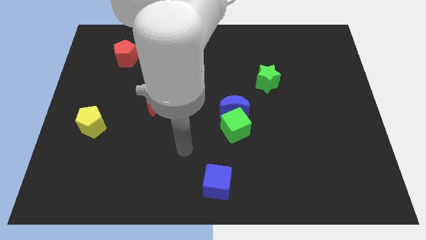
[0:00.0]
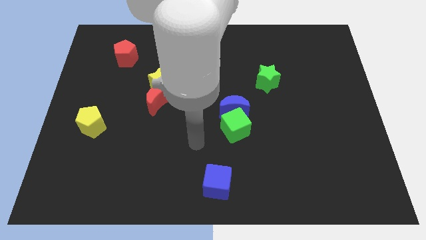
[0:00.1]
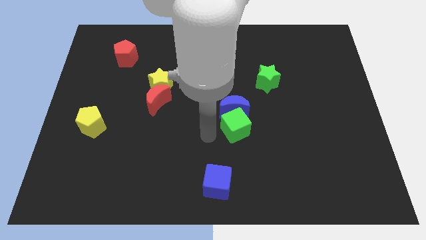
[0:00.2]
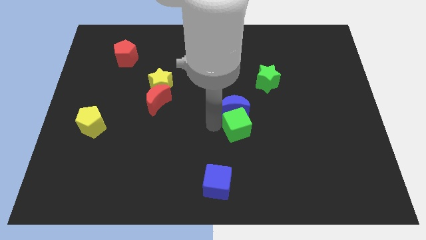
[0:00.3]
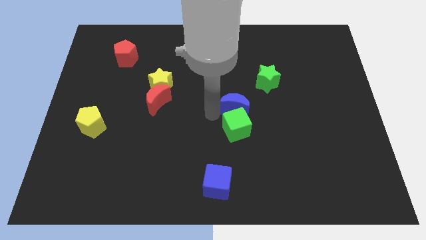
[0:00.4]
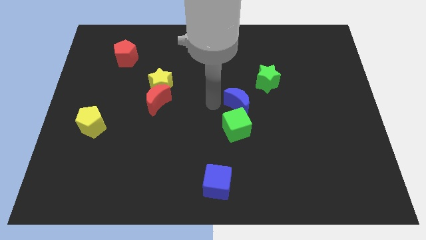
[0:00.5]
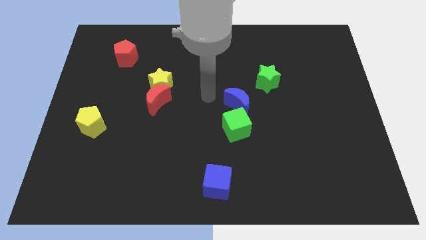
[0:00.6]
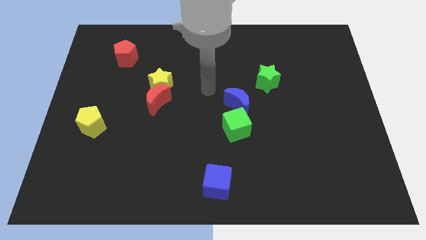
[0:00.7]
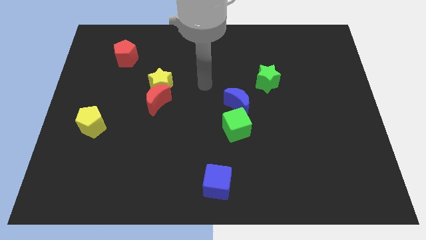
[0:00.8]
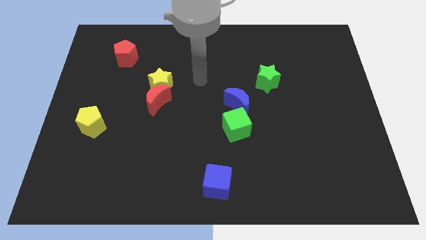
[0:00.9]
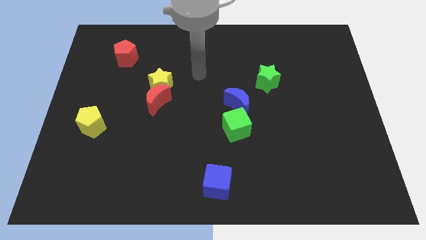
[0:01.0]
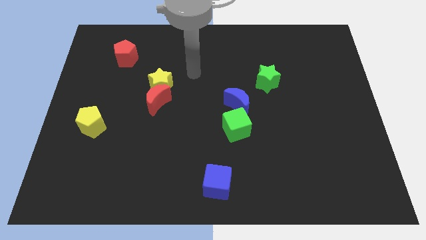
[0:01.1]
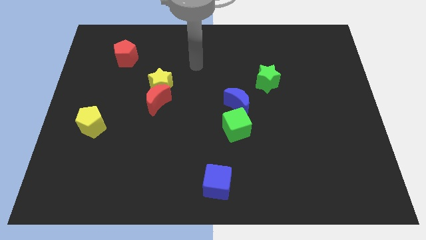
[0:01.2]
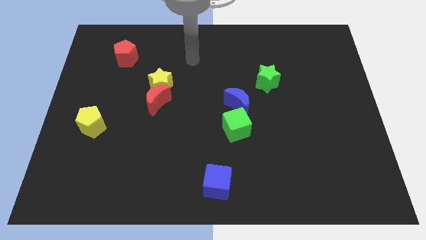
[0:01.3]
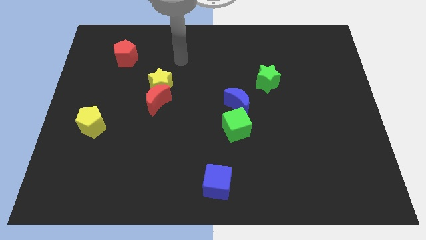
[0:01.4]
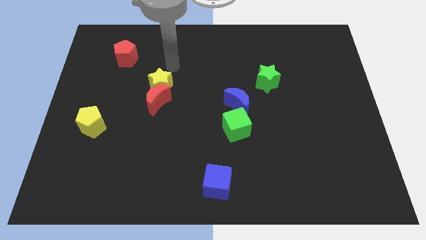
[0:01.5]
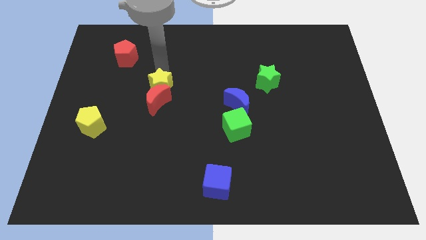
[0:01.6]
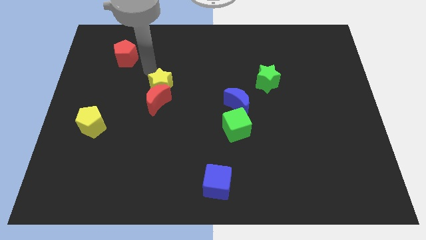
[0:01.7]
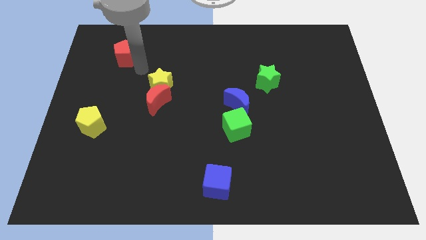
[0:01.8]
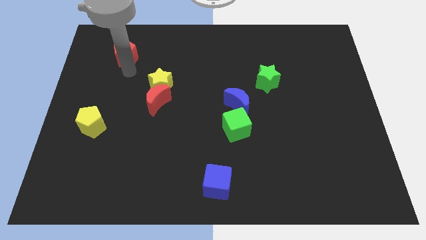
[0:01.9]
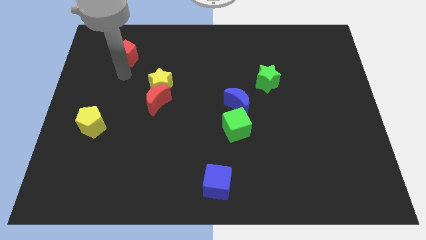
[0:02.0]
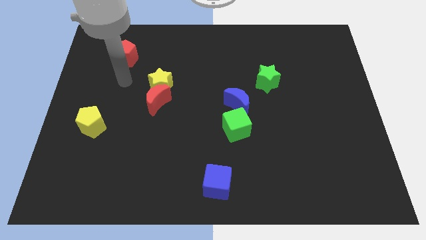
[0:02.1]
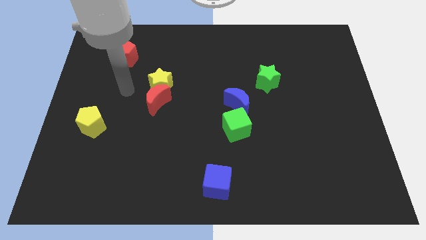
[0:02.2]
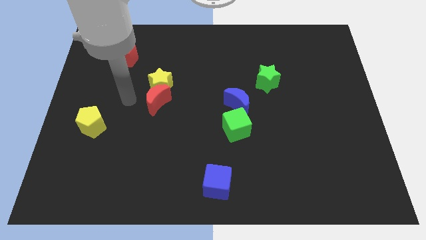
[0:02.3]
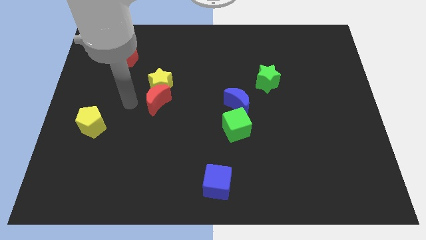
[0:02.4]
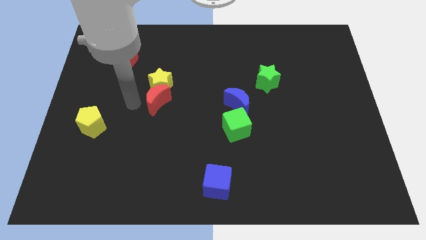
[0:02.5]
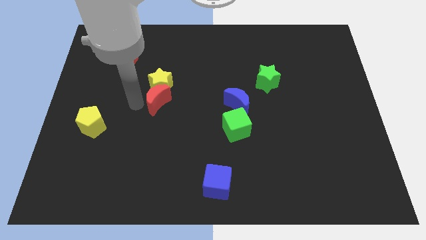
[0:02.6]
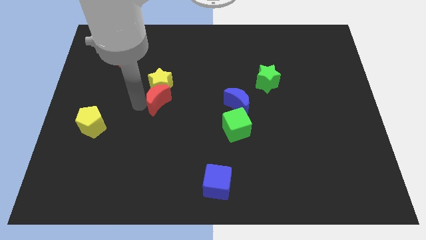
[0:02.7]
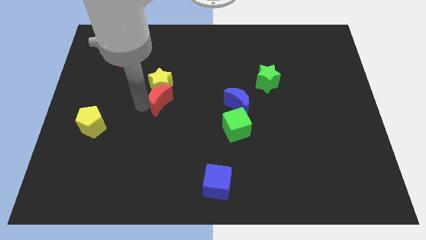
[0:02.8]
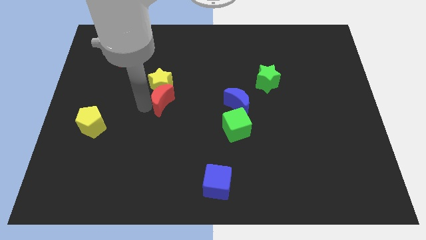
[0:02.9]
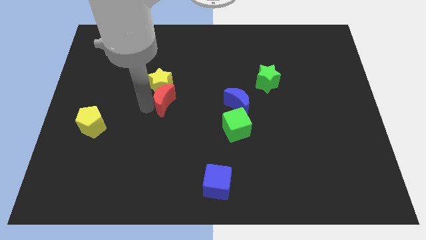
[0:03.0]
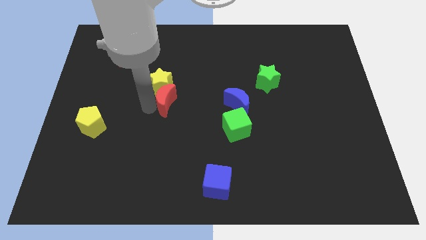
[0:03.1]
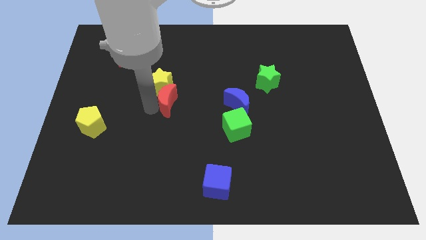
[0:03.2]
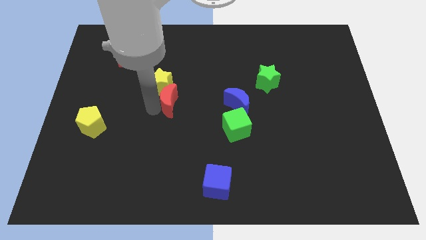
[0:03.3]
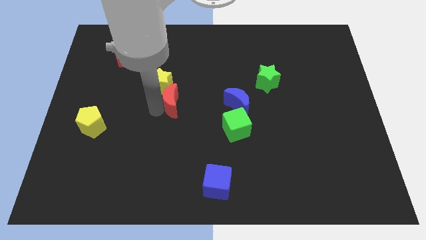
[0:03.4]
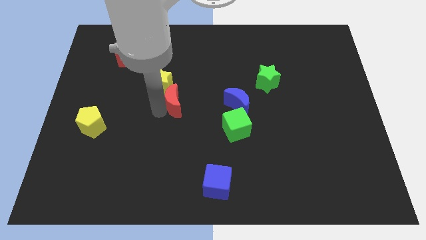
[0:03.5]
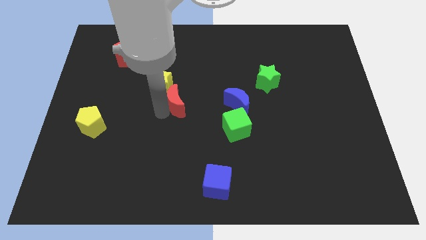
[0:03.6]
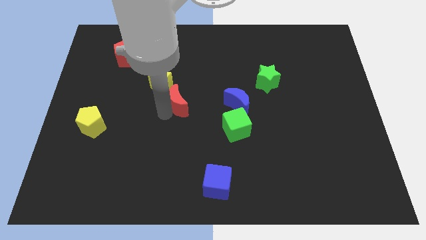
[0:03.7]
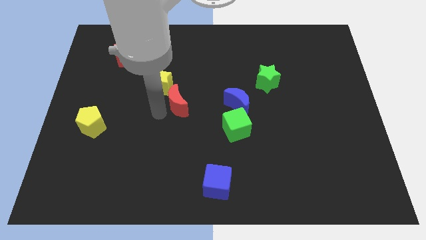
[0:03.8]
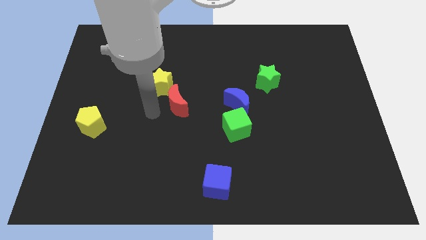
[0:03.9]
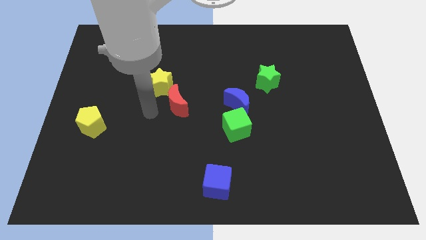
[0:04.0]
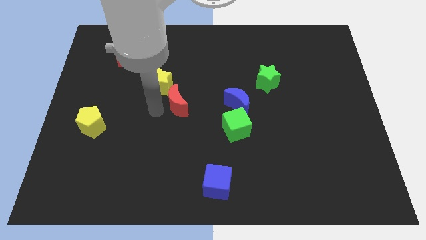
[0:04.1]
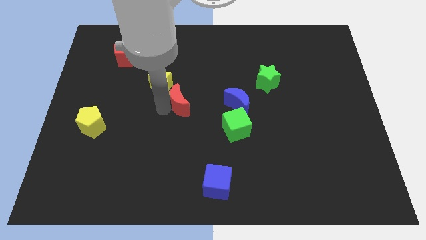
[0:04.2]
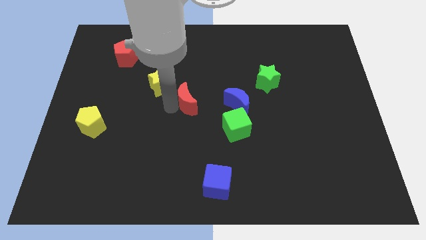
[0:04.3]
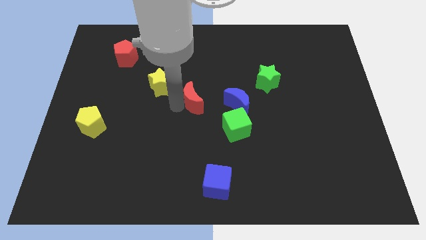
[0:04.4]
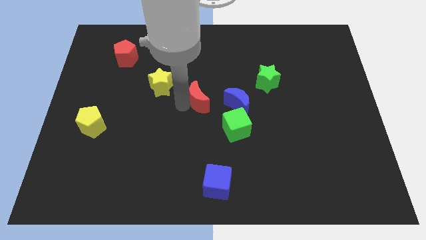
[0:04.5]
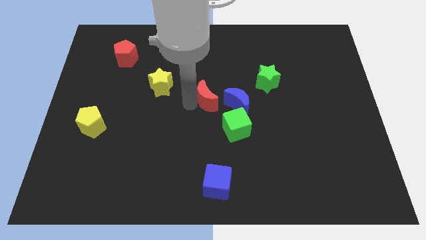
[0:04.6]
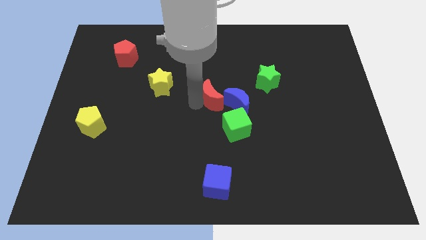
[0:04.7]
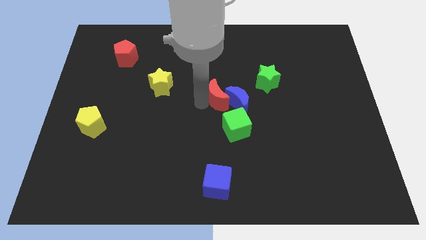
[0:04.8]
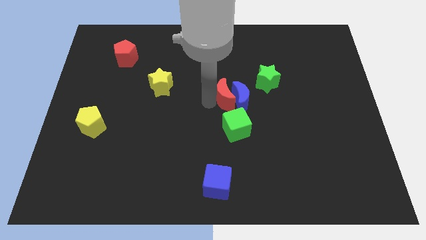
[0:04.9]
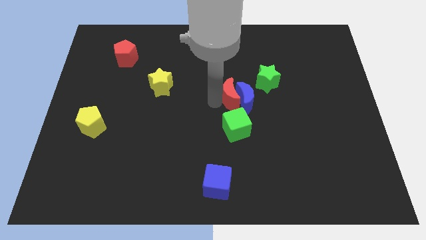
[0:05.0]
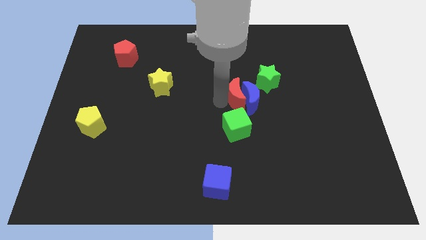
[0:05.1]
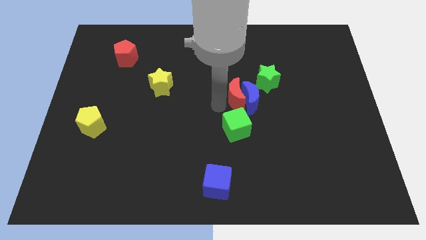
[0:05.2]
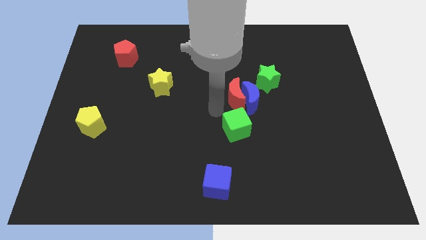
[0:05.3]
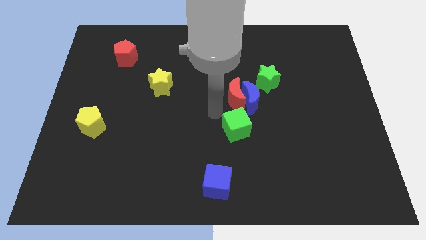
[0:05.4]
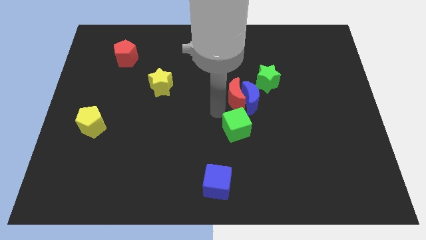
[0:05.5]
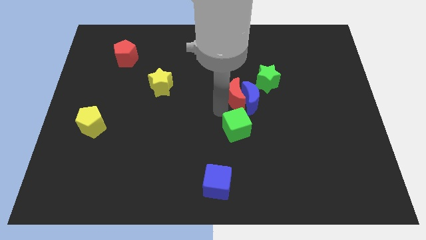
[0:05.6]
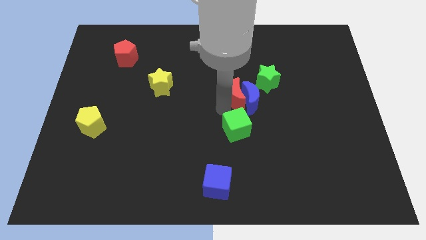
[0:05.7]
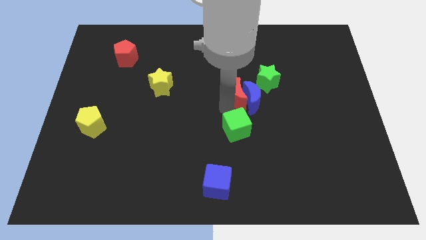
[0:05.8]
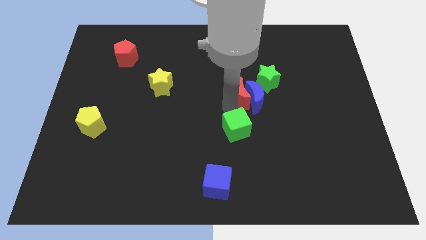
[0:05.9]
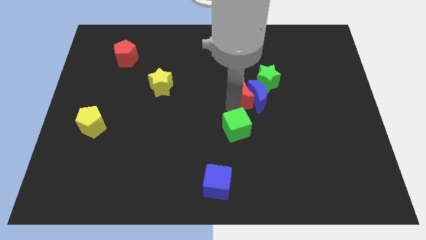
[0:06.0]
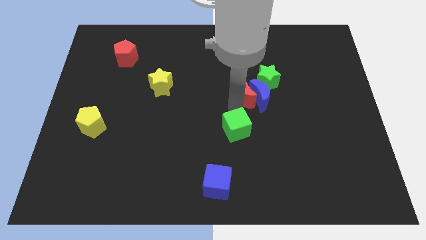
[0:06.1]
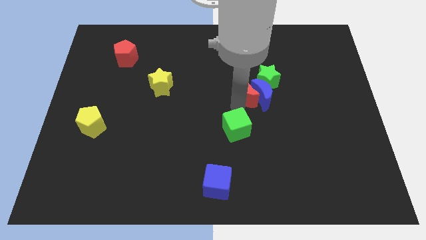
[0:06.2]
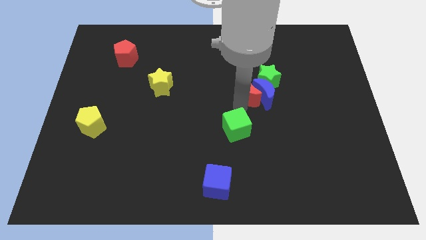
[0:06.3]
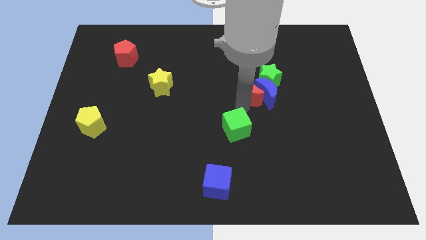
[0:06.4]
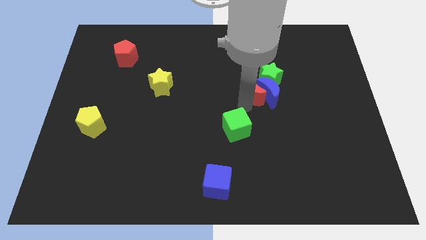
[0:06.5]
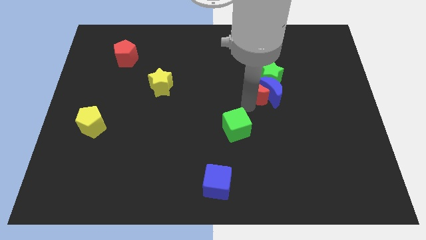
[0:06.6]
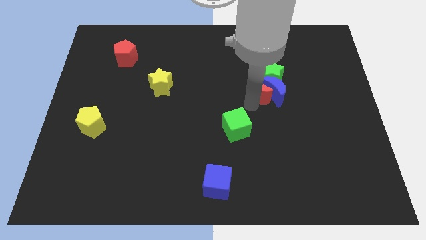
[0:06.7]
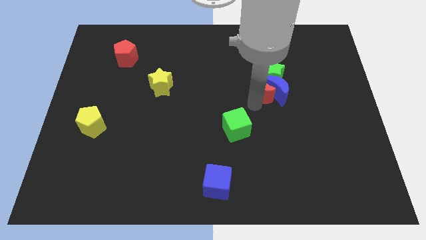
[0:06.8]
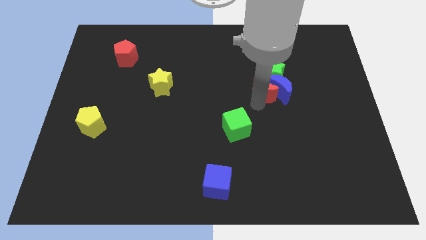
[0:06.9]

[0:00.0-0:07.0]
push the red moon towards the green star
